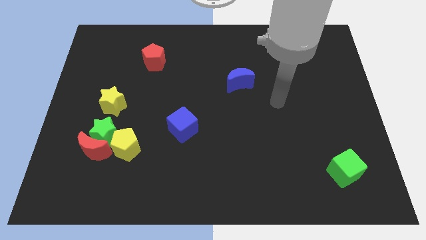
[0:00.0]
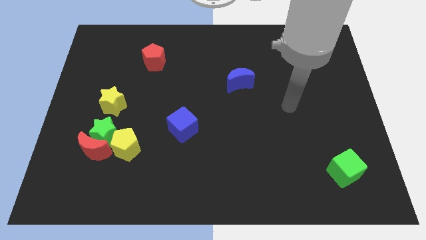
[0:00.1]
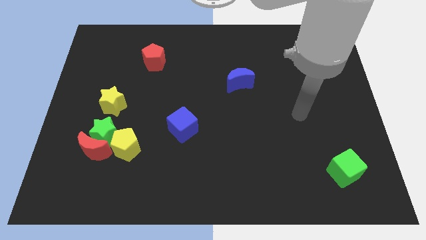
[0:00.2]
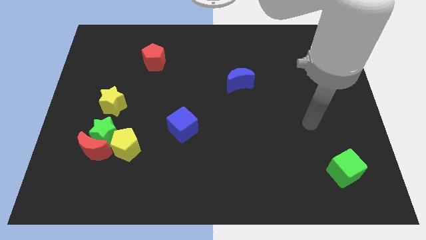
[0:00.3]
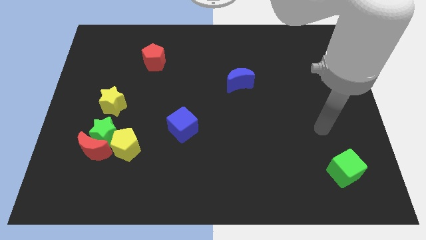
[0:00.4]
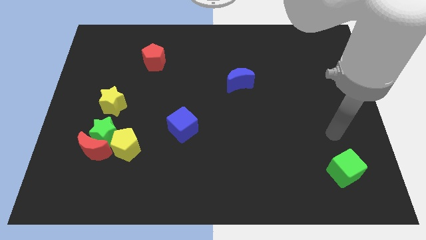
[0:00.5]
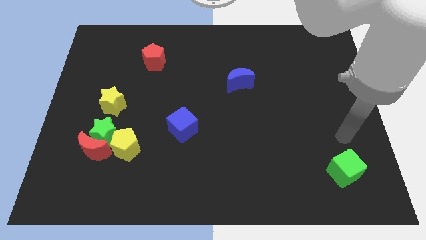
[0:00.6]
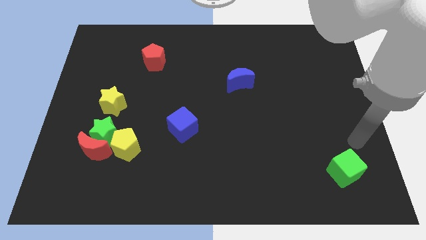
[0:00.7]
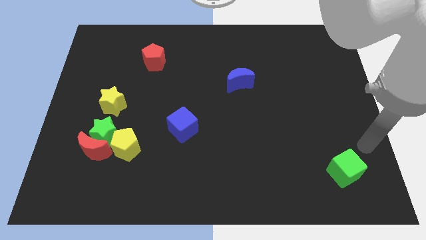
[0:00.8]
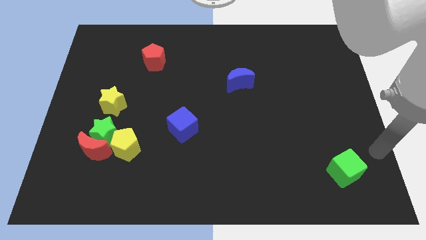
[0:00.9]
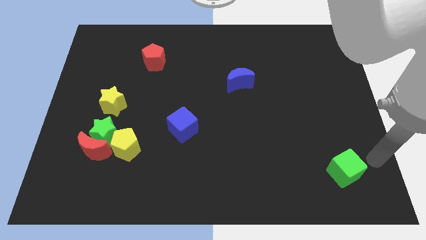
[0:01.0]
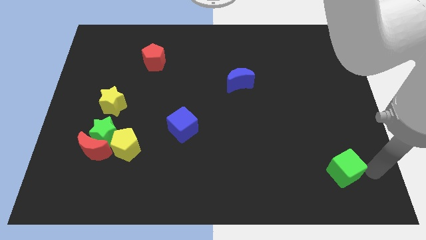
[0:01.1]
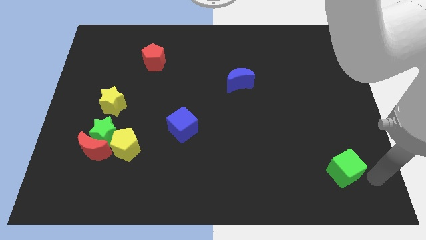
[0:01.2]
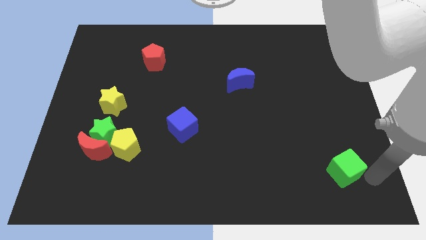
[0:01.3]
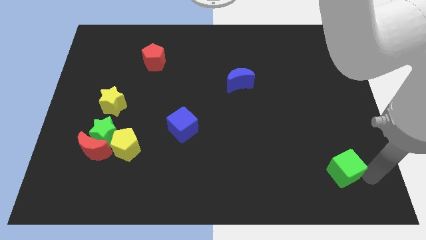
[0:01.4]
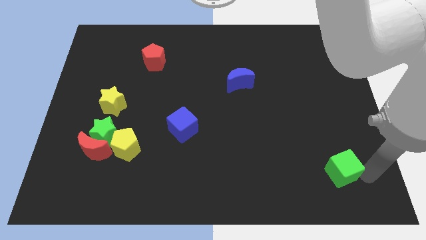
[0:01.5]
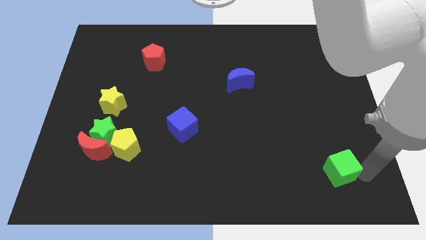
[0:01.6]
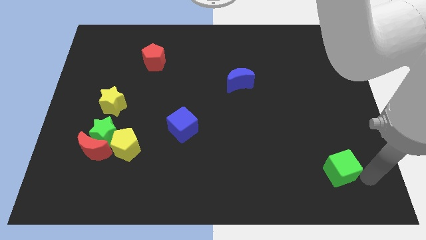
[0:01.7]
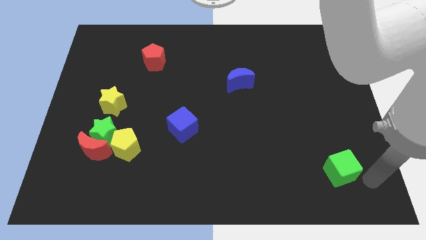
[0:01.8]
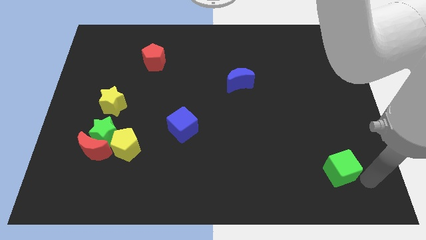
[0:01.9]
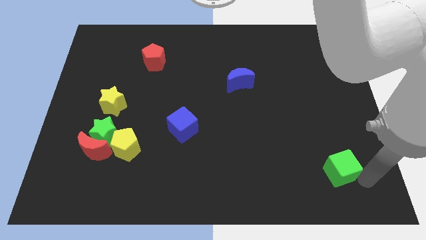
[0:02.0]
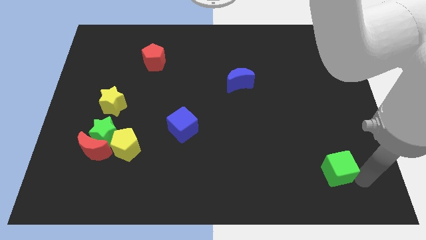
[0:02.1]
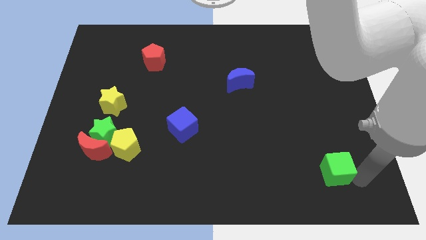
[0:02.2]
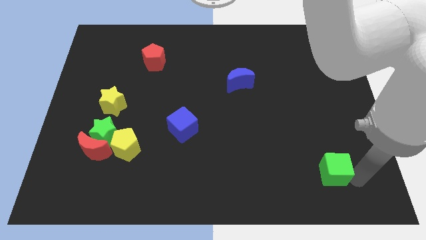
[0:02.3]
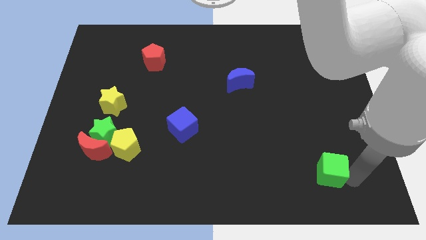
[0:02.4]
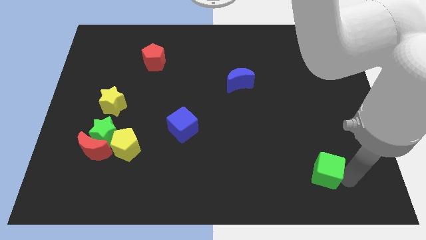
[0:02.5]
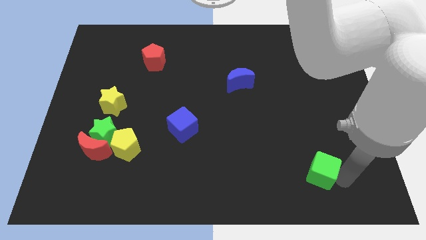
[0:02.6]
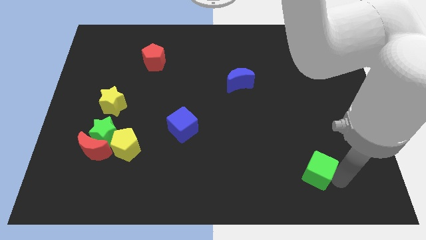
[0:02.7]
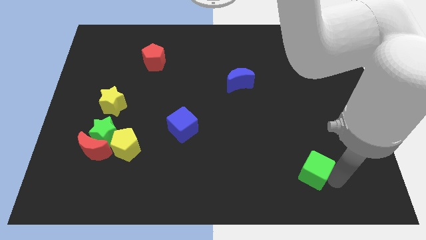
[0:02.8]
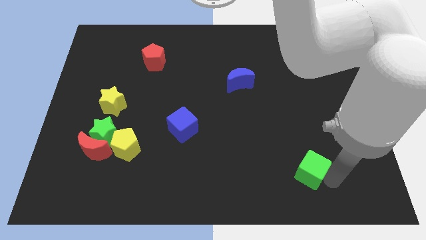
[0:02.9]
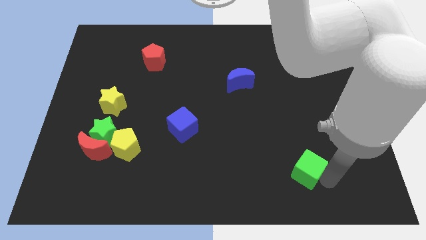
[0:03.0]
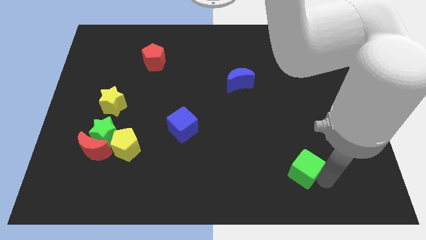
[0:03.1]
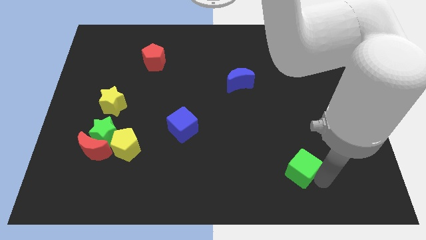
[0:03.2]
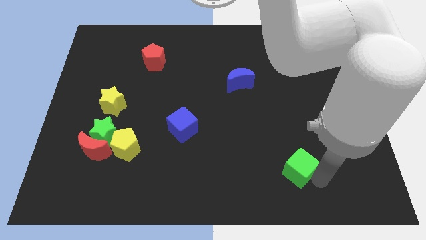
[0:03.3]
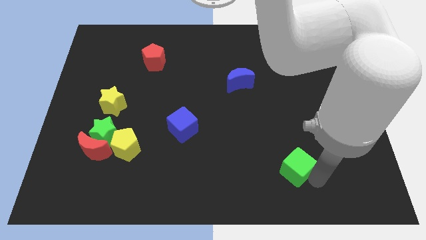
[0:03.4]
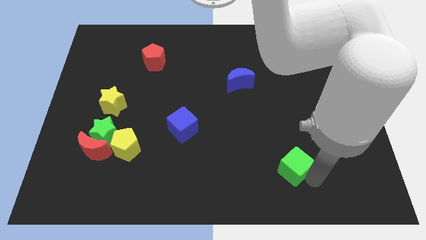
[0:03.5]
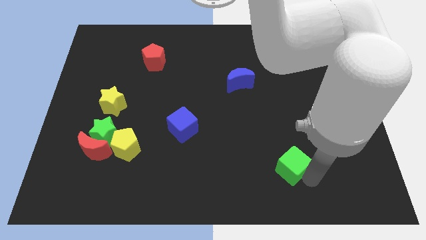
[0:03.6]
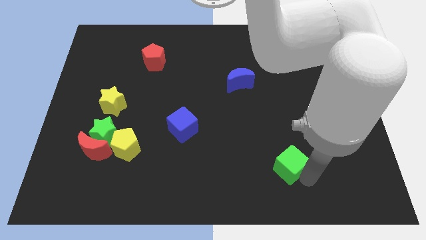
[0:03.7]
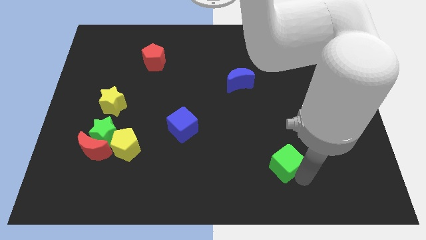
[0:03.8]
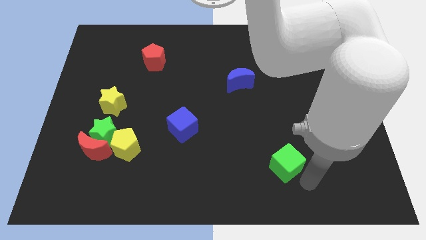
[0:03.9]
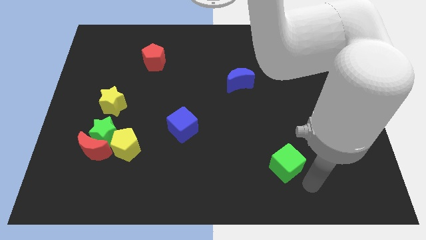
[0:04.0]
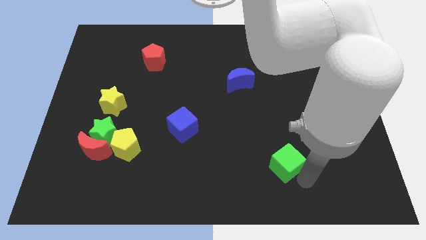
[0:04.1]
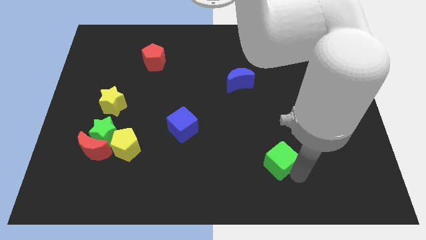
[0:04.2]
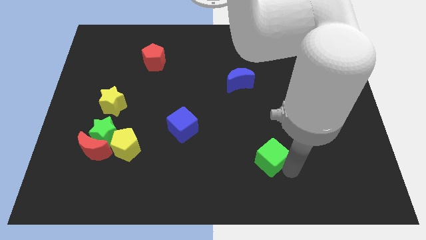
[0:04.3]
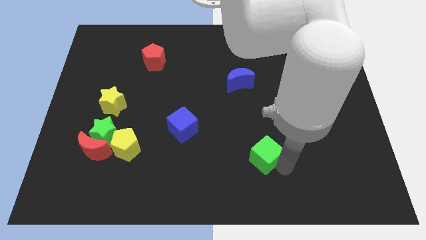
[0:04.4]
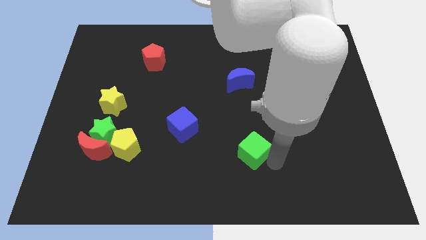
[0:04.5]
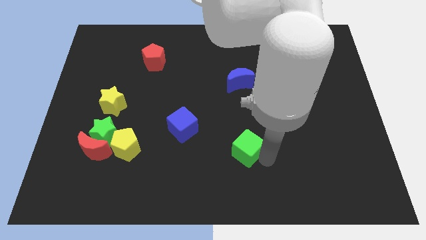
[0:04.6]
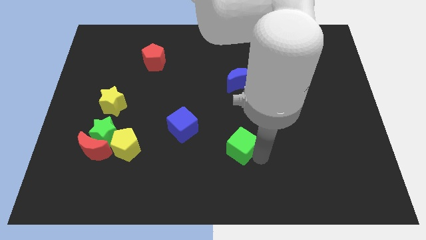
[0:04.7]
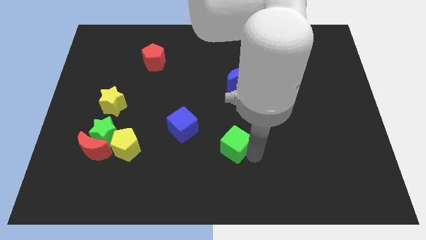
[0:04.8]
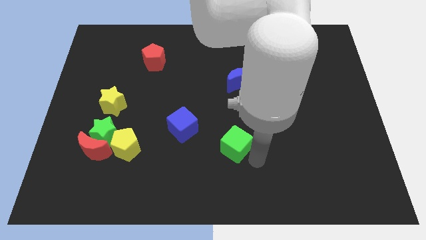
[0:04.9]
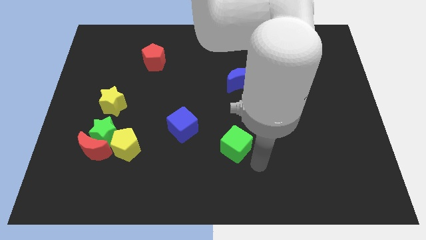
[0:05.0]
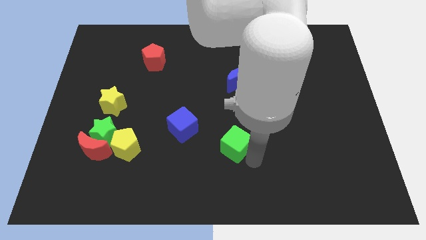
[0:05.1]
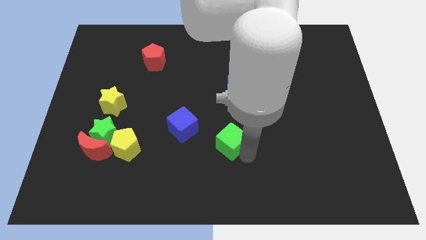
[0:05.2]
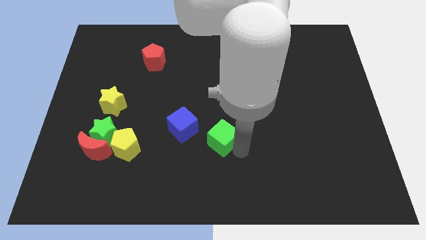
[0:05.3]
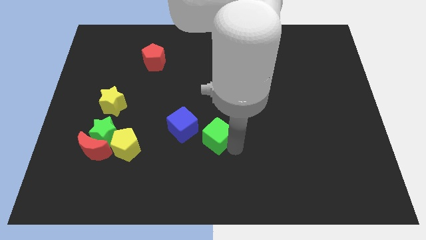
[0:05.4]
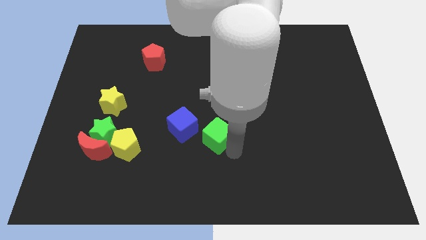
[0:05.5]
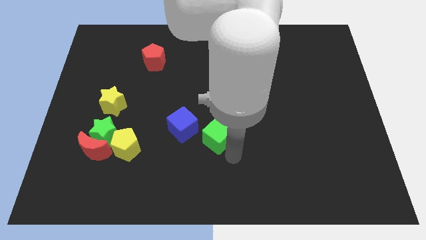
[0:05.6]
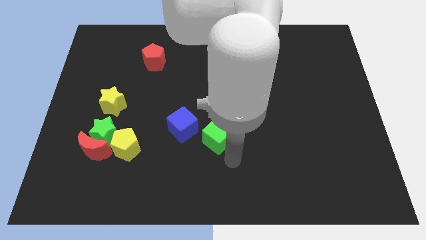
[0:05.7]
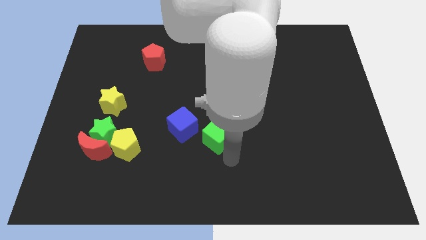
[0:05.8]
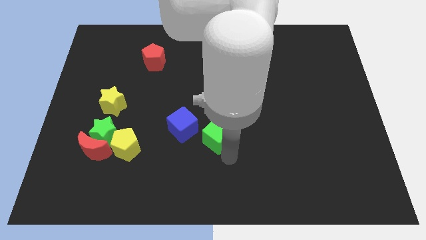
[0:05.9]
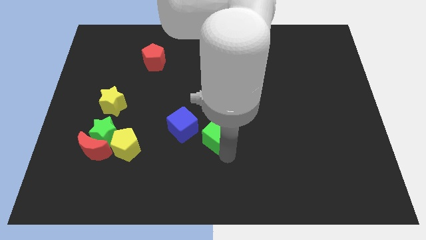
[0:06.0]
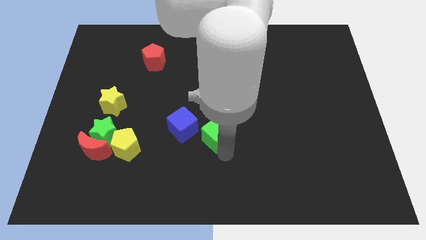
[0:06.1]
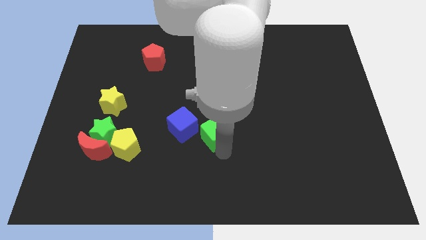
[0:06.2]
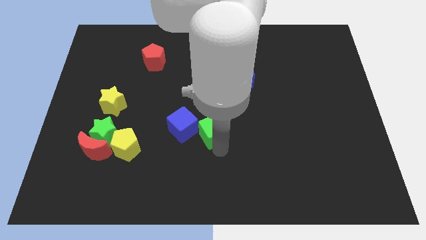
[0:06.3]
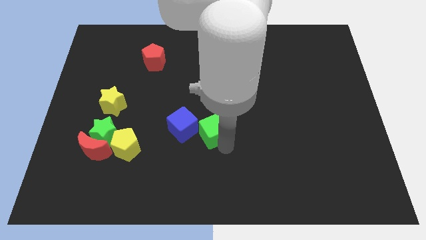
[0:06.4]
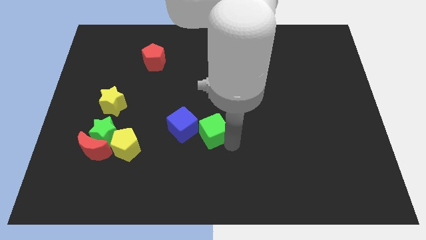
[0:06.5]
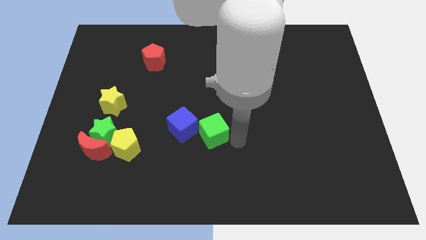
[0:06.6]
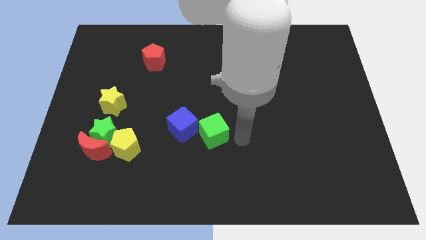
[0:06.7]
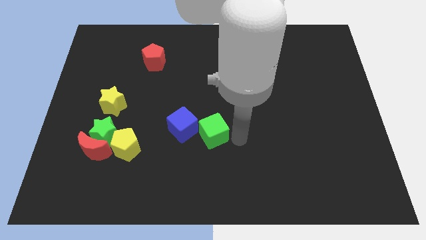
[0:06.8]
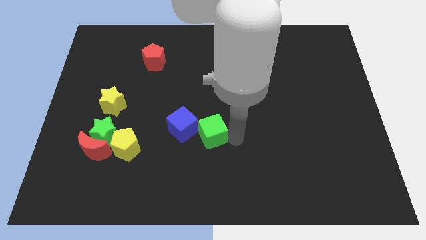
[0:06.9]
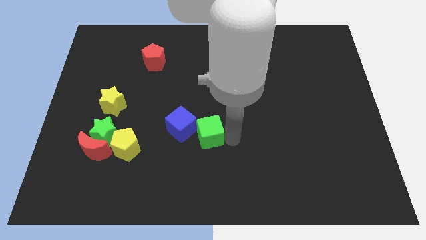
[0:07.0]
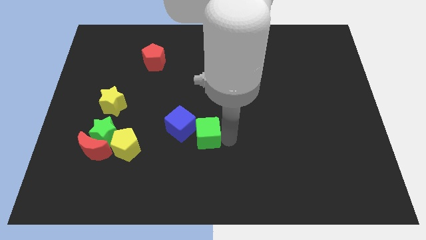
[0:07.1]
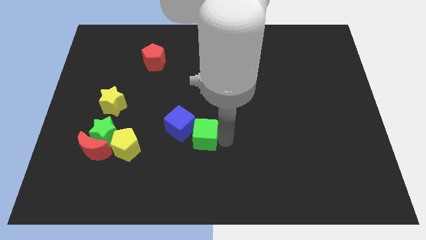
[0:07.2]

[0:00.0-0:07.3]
push the green cube towards the blue cube

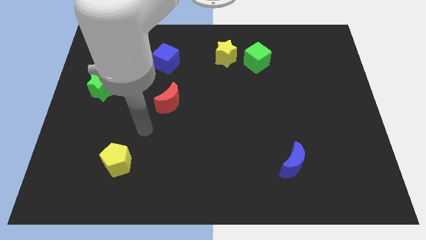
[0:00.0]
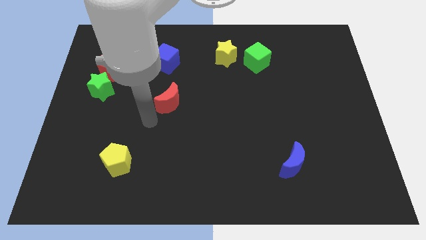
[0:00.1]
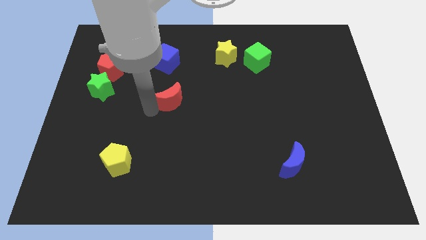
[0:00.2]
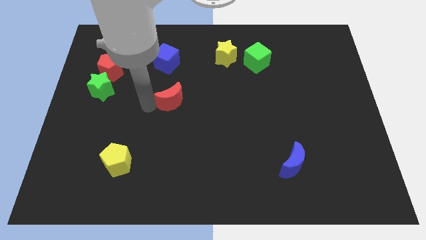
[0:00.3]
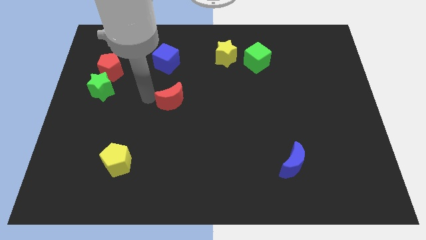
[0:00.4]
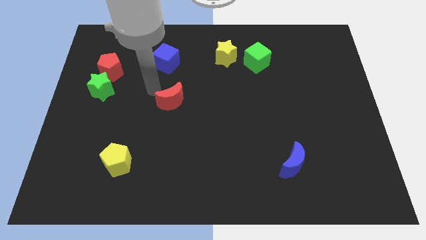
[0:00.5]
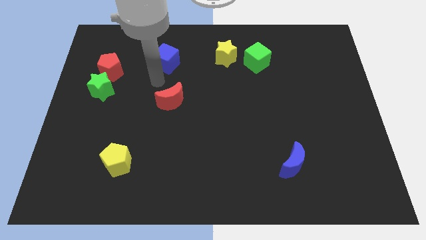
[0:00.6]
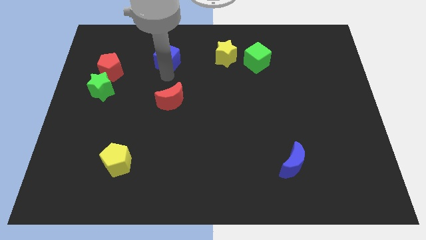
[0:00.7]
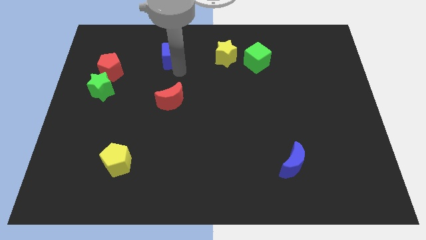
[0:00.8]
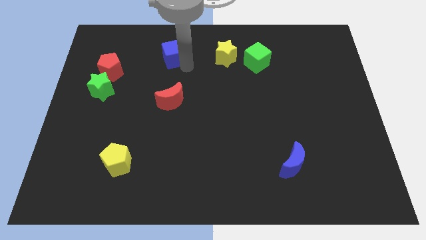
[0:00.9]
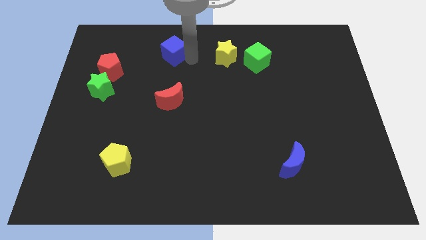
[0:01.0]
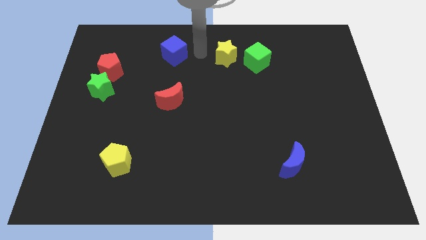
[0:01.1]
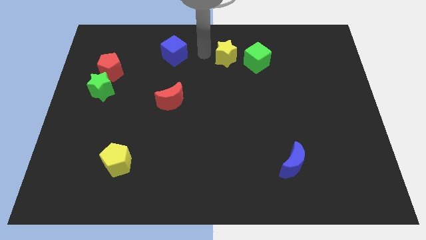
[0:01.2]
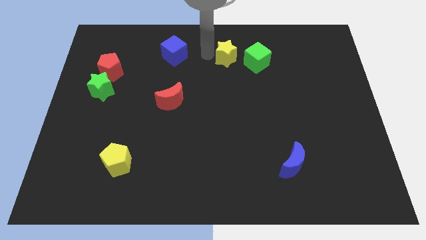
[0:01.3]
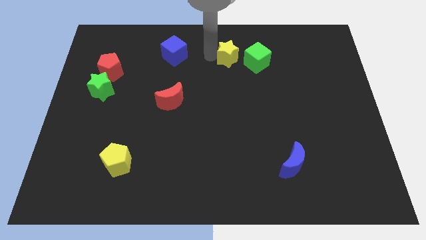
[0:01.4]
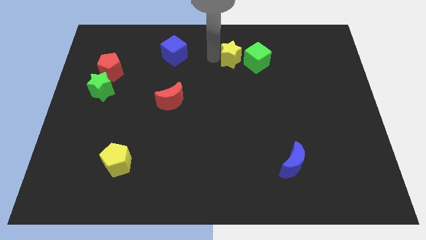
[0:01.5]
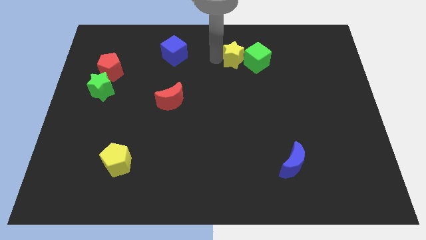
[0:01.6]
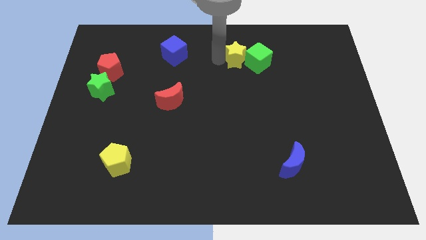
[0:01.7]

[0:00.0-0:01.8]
move the yellow star next to the green cube
